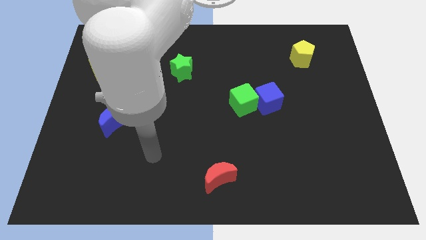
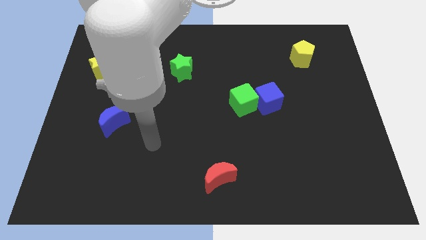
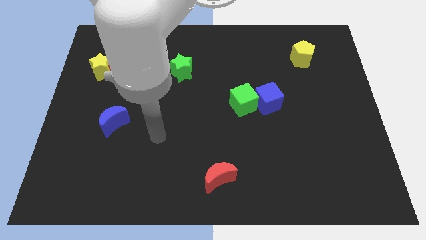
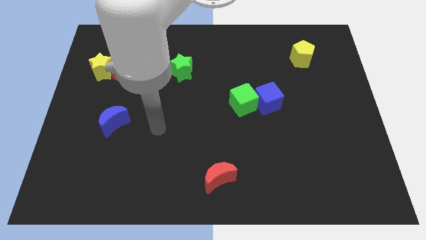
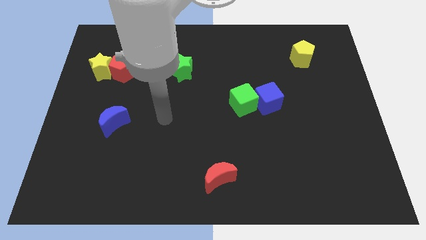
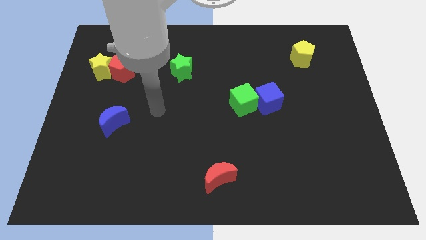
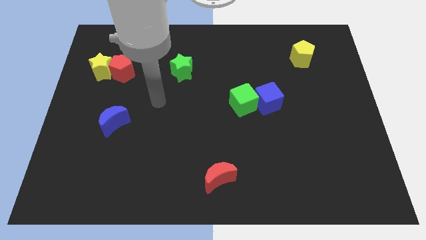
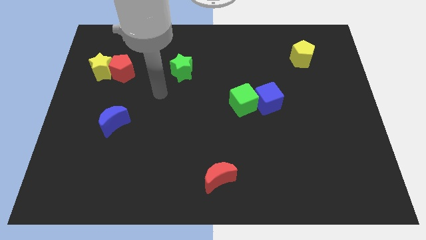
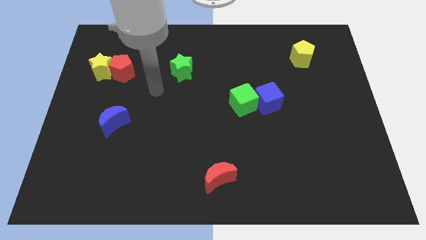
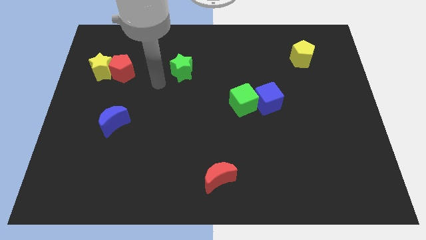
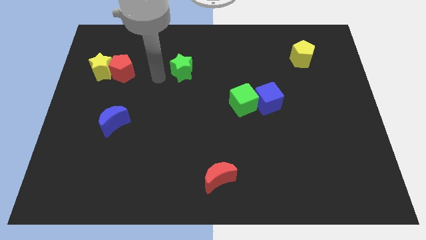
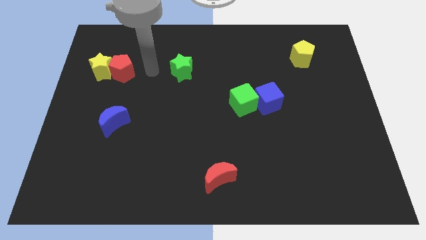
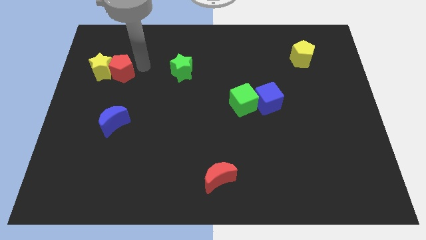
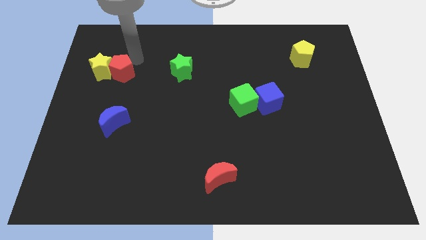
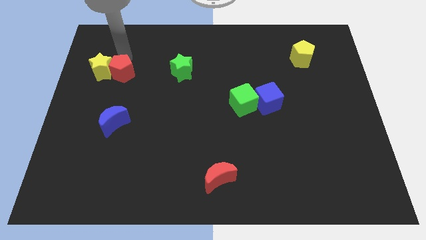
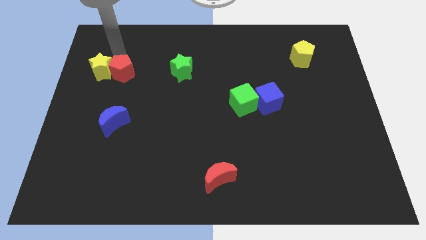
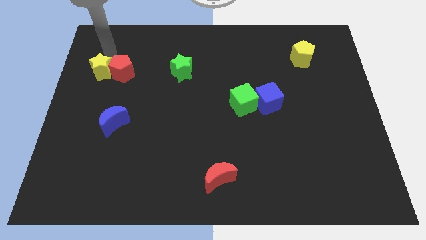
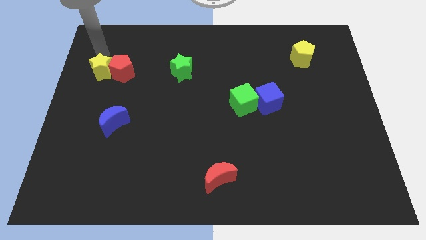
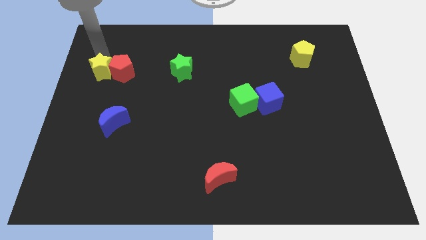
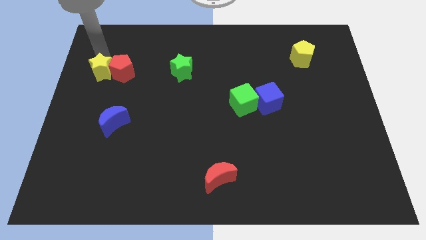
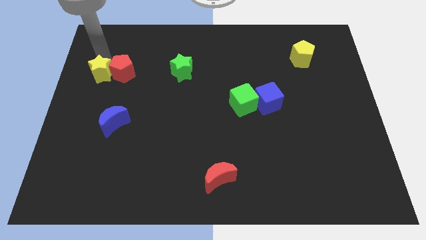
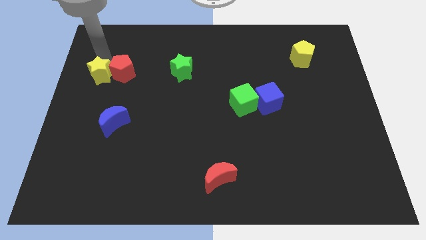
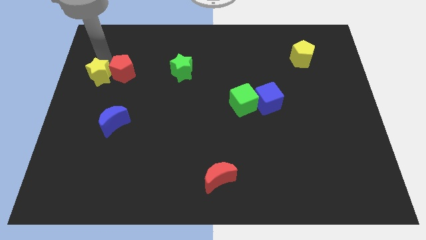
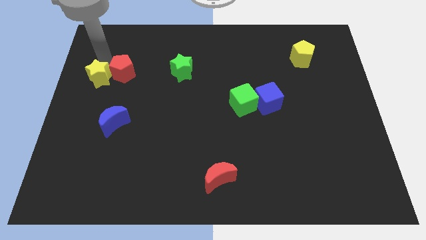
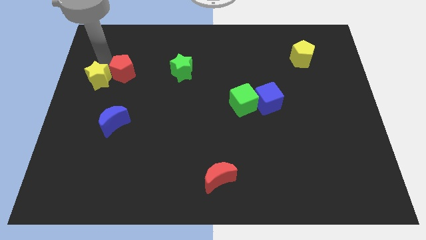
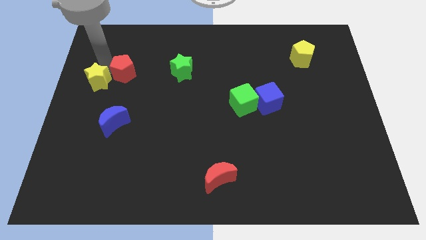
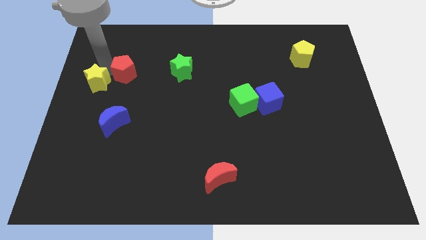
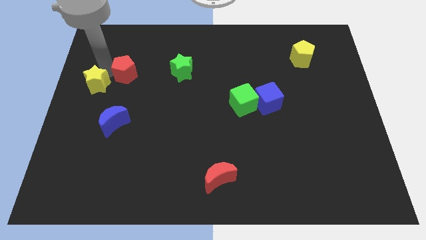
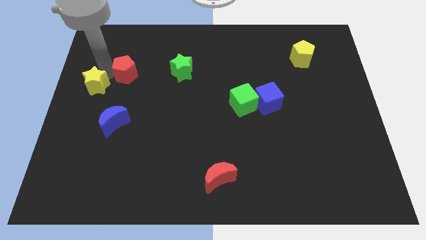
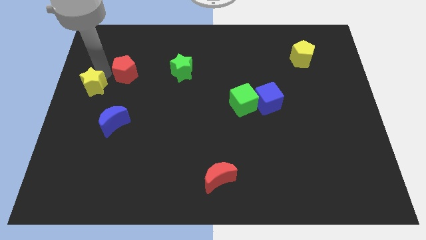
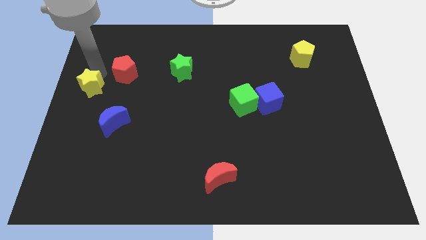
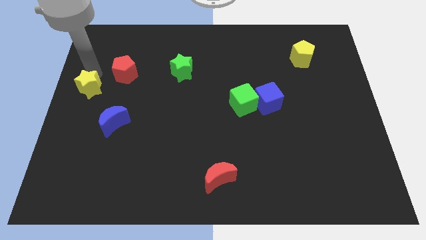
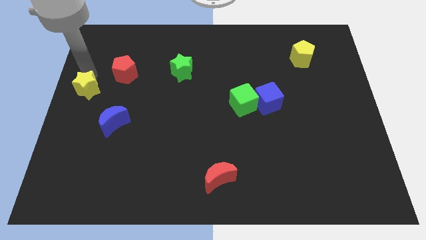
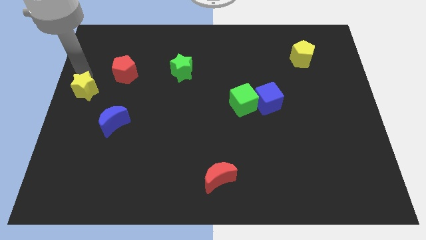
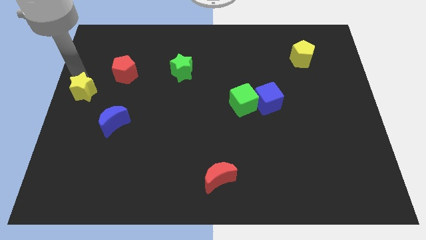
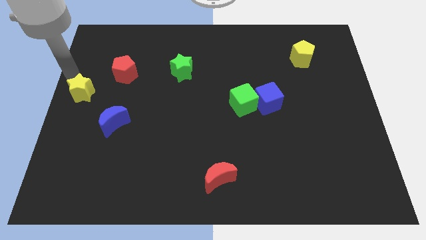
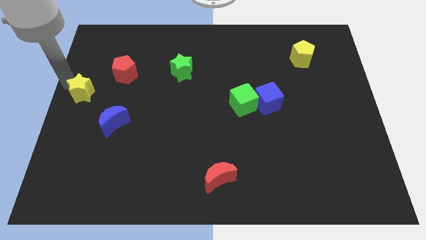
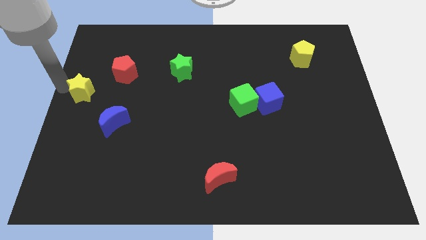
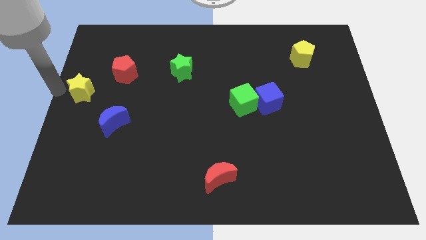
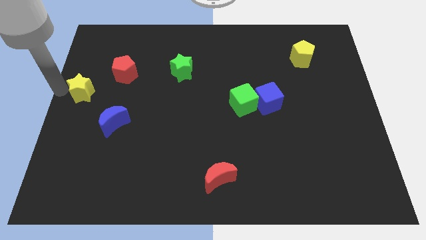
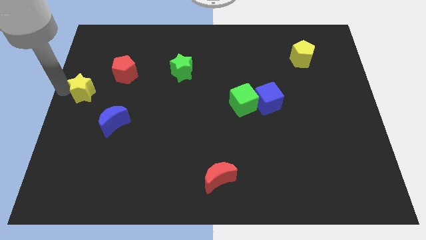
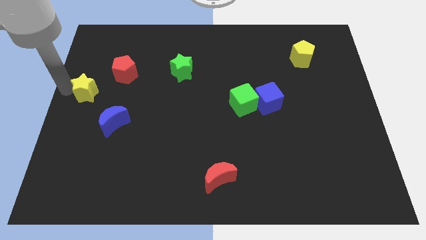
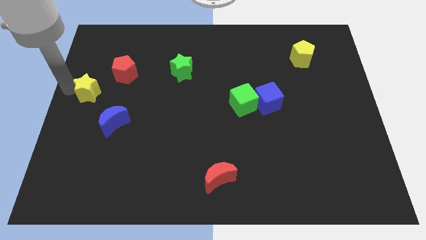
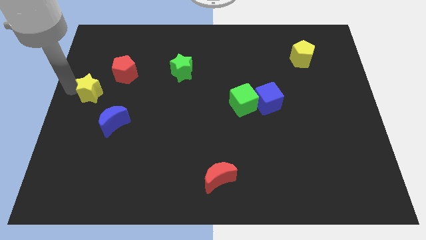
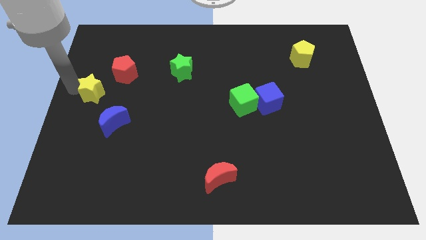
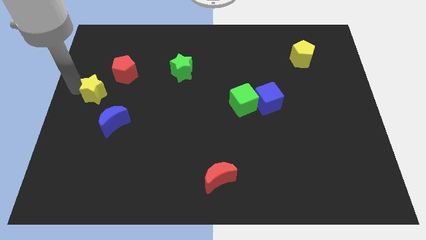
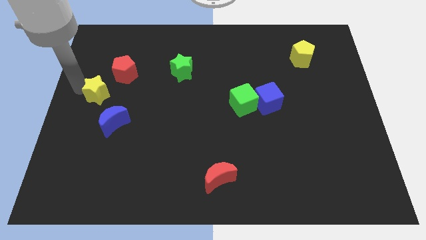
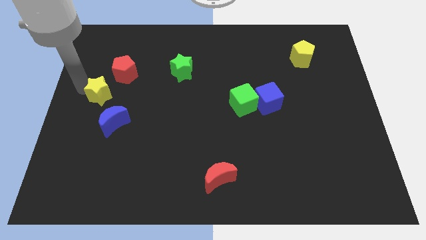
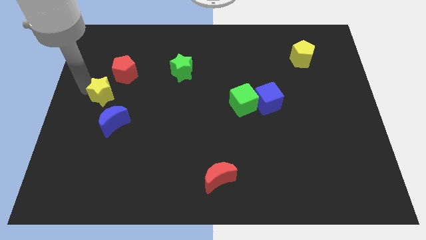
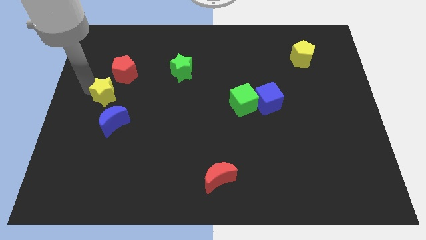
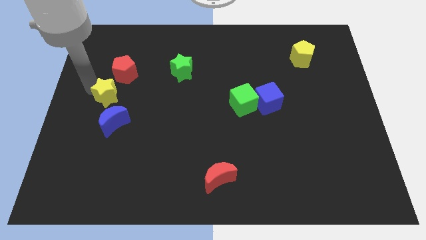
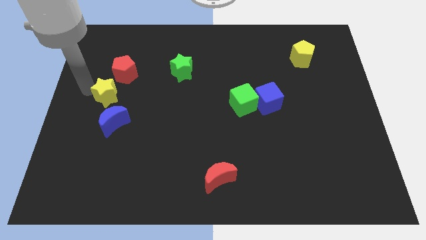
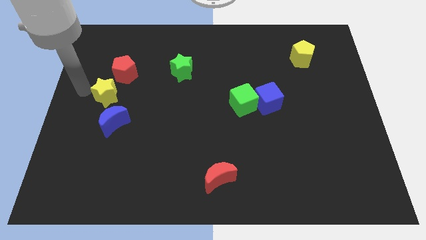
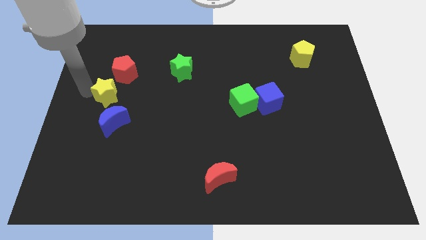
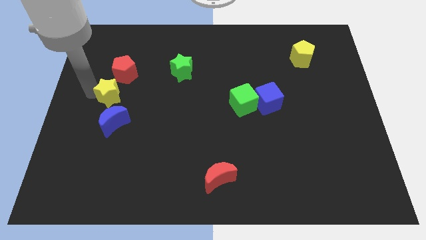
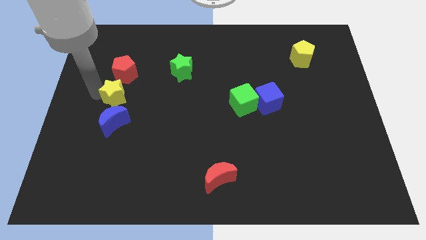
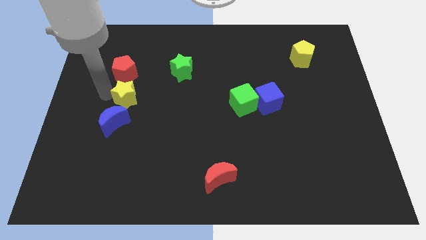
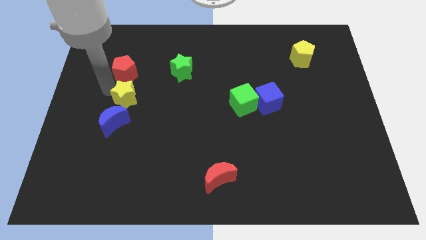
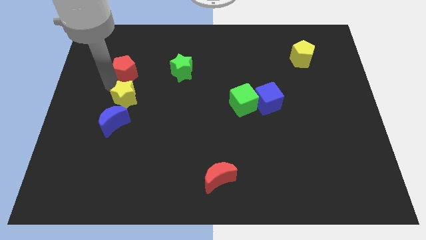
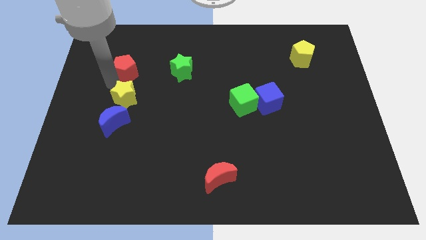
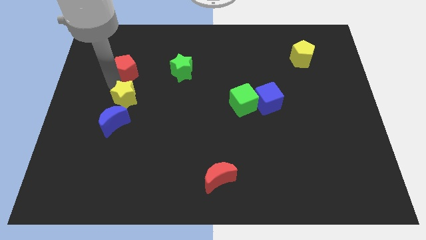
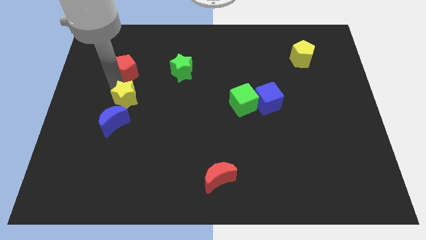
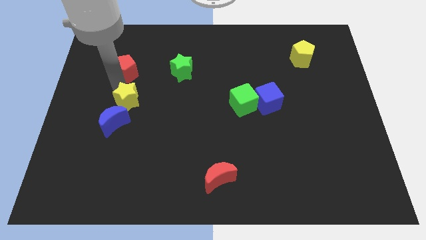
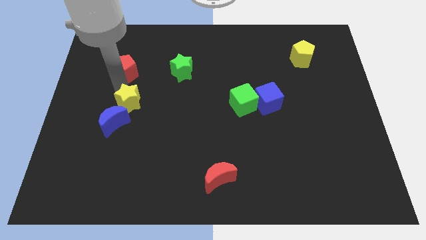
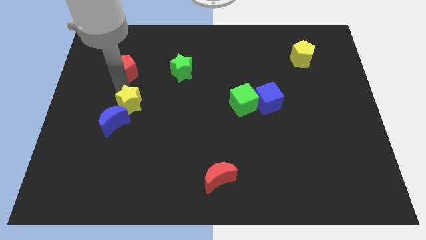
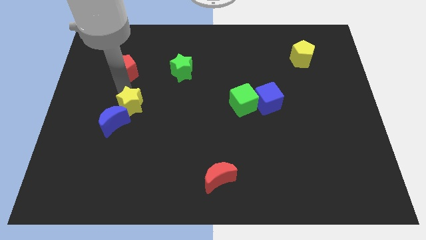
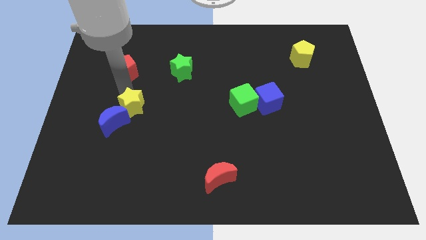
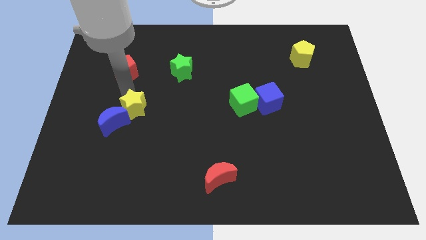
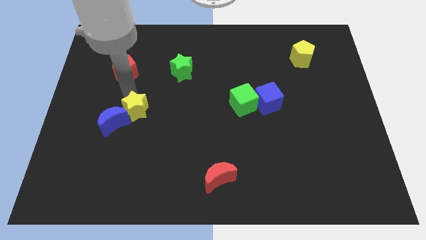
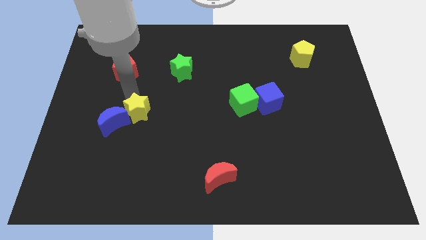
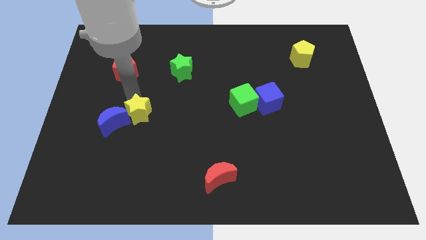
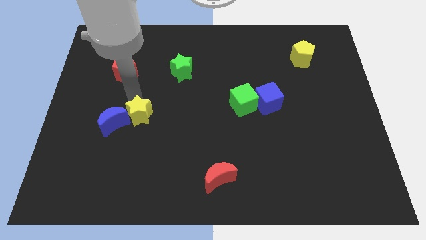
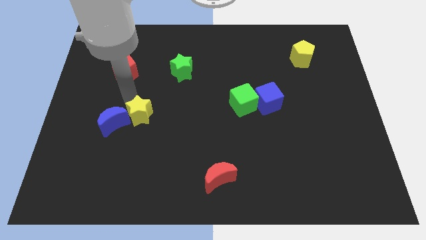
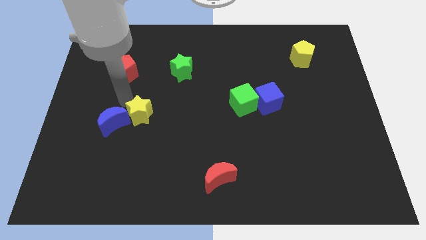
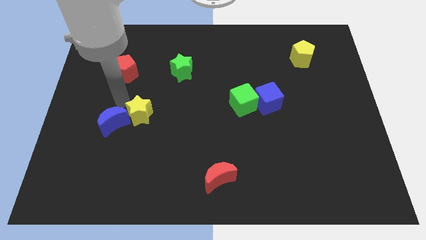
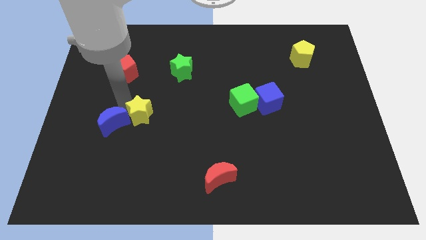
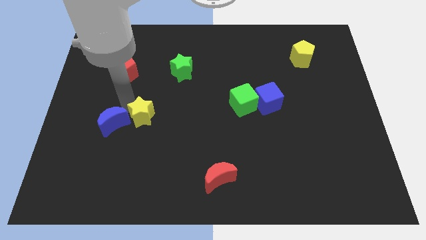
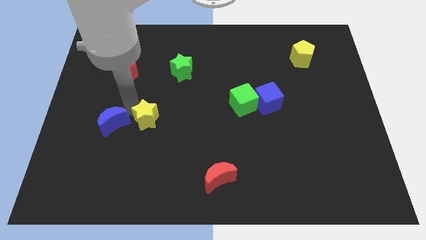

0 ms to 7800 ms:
move the yellow star downwards and to the right
